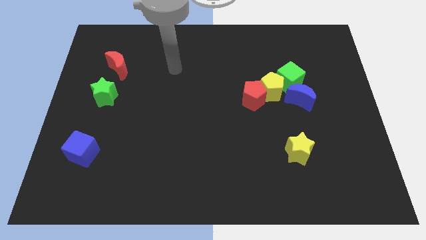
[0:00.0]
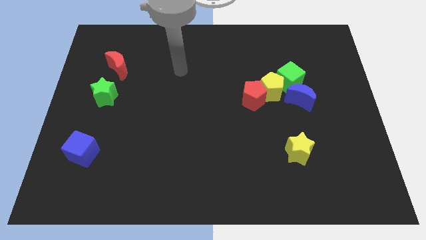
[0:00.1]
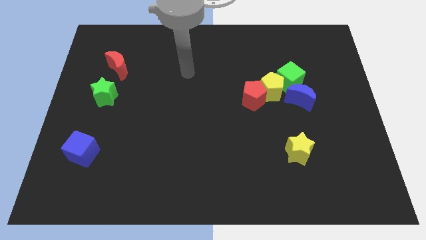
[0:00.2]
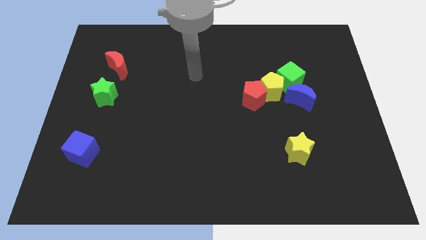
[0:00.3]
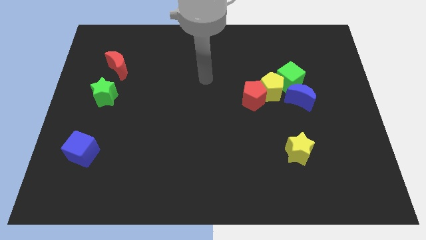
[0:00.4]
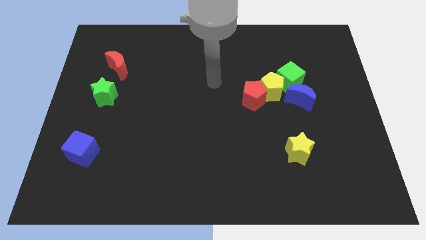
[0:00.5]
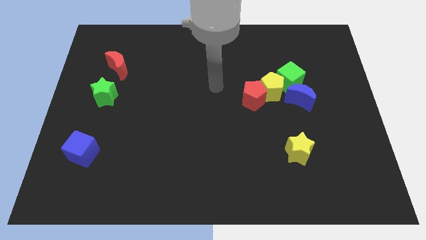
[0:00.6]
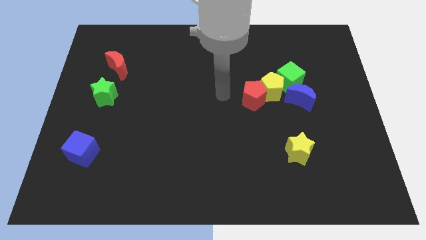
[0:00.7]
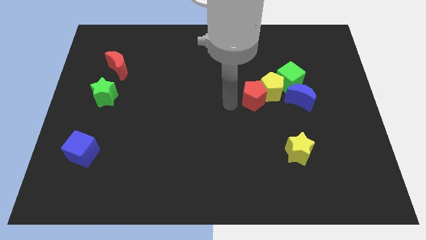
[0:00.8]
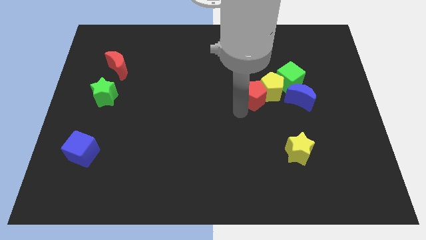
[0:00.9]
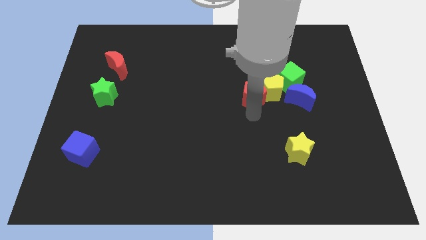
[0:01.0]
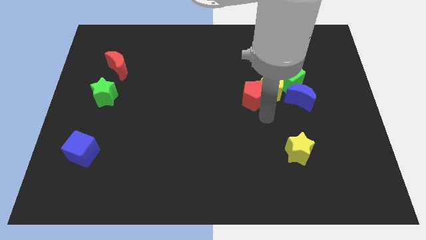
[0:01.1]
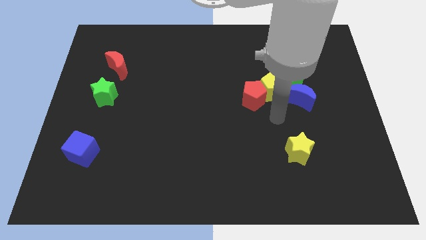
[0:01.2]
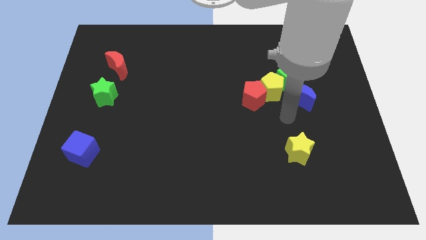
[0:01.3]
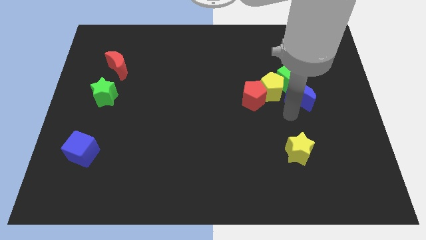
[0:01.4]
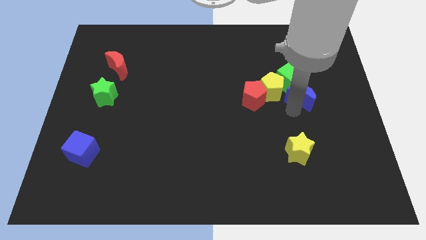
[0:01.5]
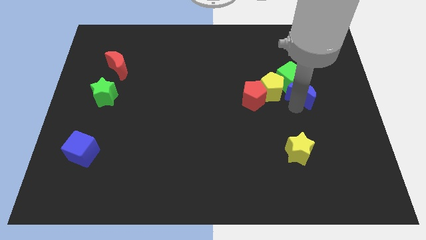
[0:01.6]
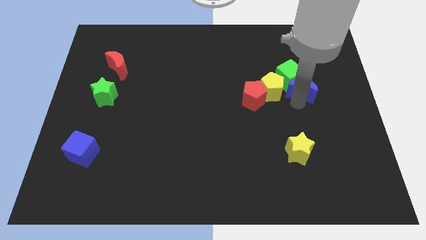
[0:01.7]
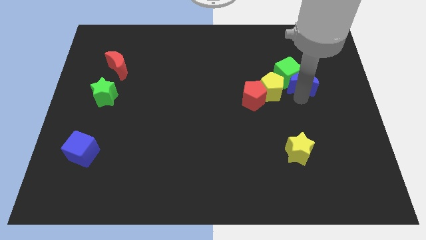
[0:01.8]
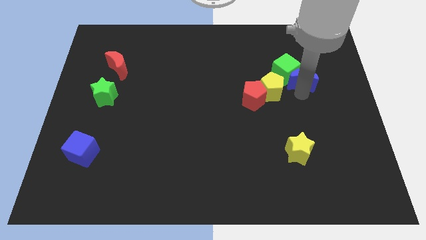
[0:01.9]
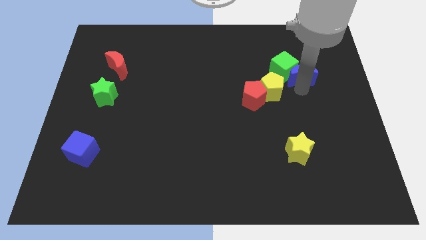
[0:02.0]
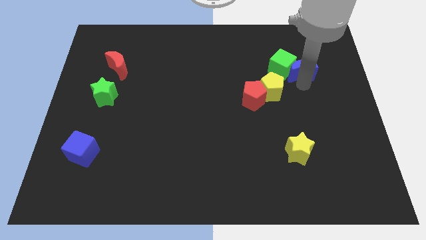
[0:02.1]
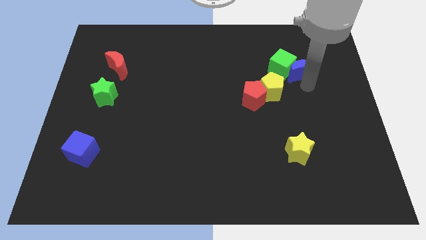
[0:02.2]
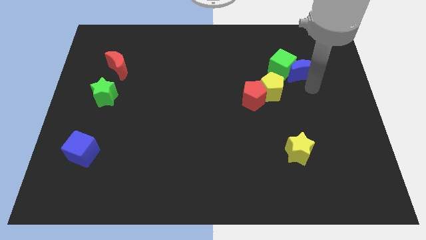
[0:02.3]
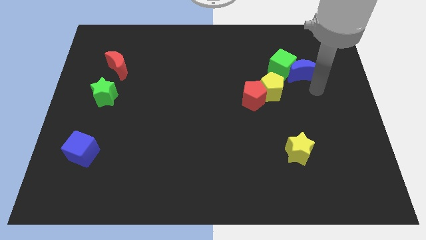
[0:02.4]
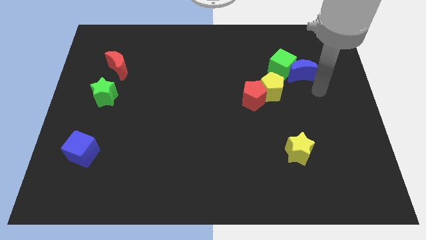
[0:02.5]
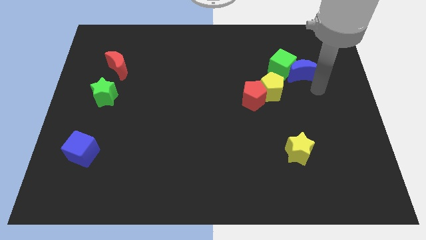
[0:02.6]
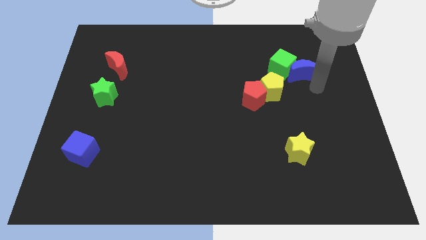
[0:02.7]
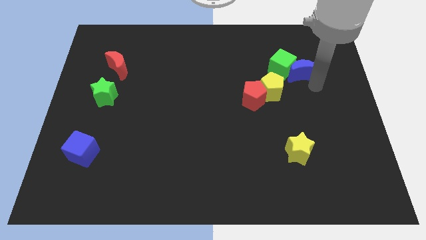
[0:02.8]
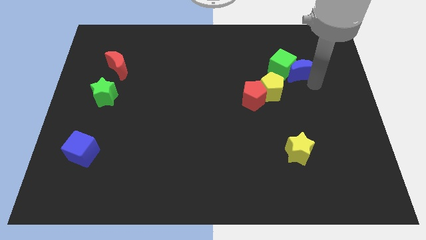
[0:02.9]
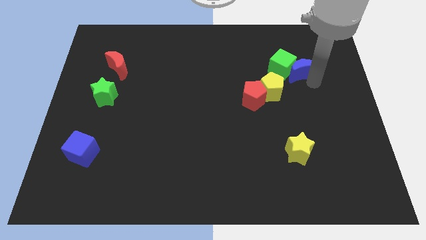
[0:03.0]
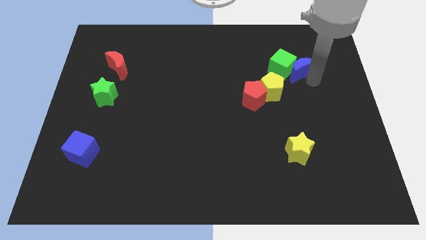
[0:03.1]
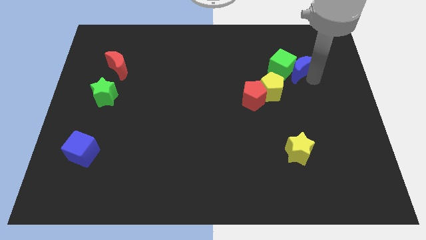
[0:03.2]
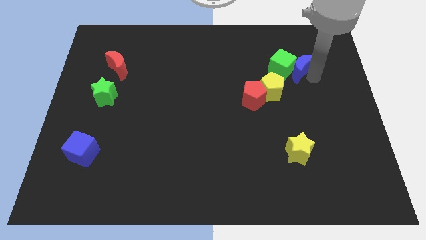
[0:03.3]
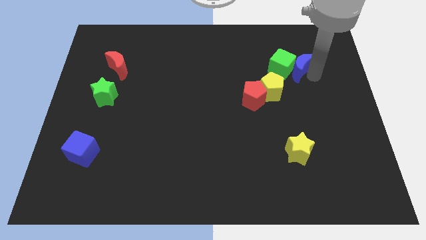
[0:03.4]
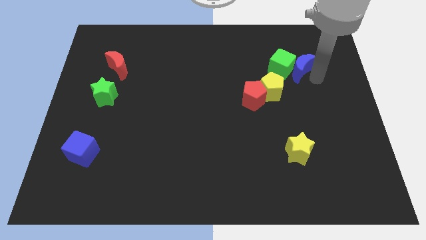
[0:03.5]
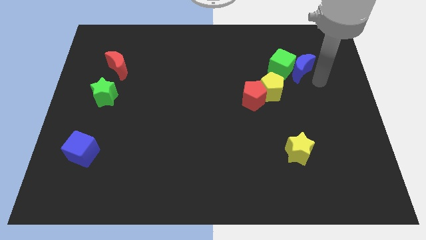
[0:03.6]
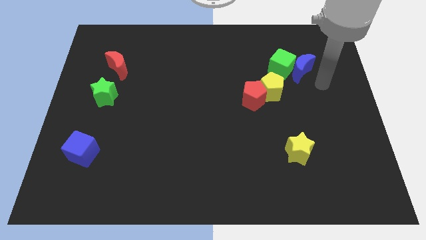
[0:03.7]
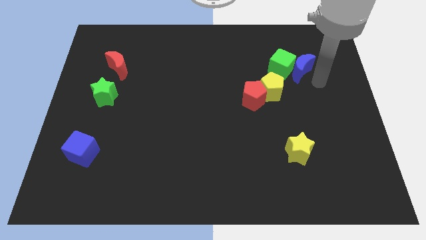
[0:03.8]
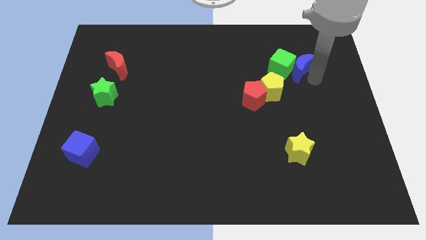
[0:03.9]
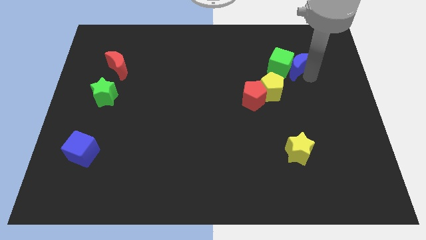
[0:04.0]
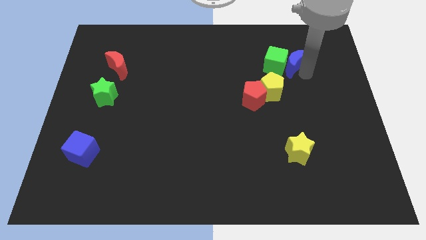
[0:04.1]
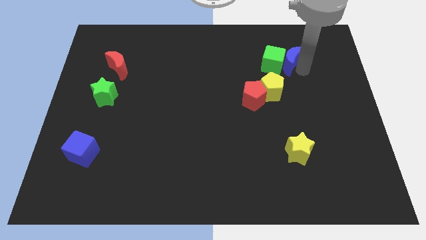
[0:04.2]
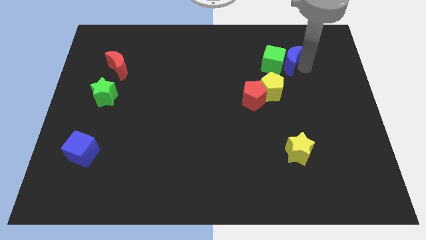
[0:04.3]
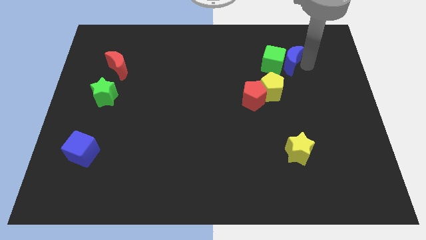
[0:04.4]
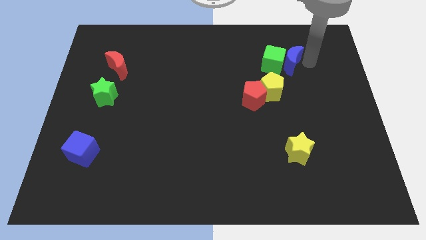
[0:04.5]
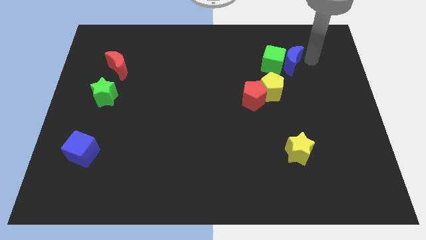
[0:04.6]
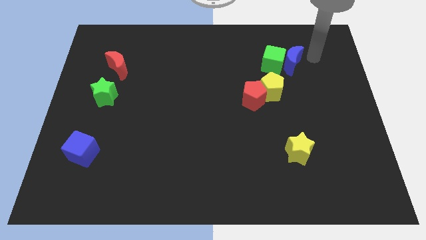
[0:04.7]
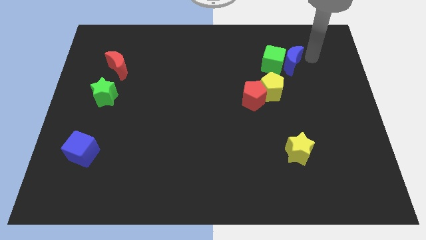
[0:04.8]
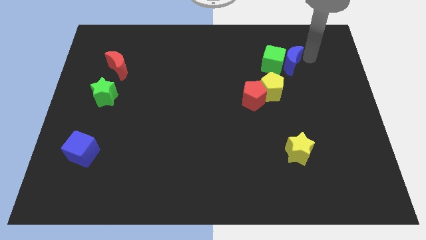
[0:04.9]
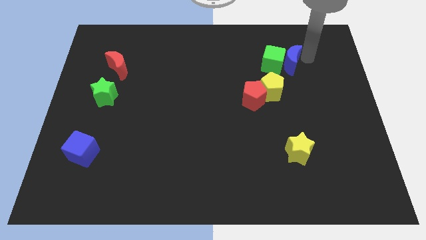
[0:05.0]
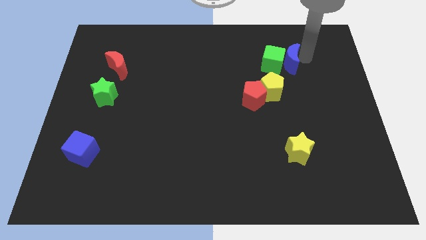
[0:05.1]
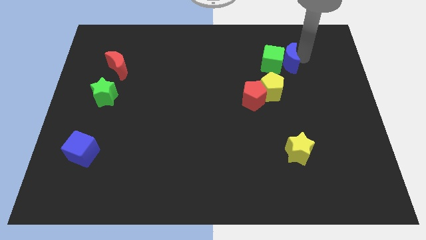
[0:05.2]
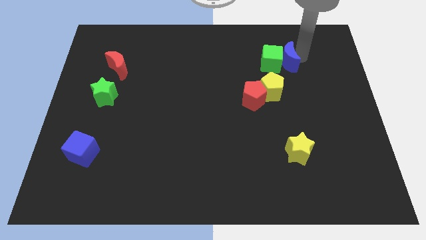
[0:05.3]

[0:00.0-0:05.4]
move the blue moon upwards and then to the left a bit

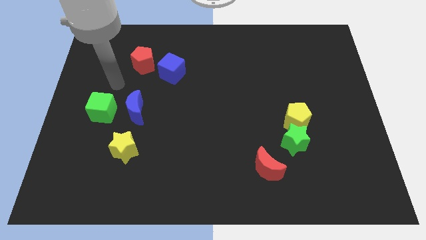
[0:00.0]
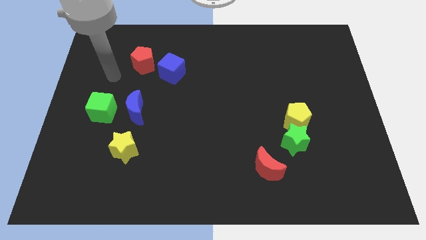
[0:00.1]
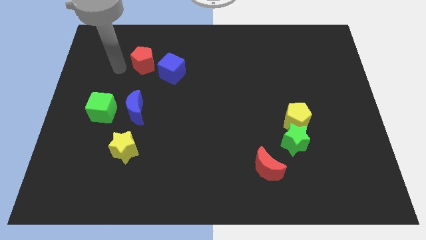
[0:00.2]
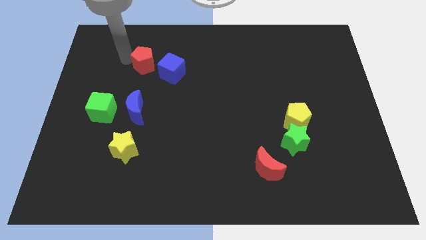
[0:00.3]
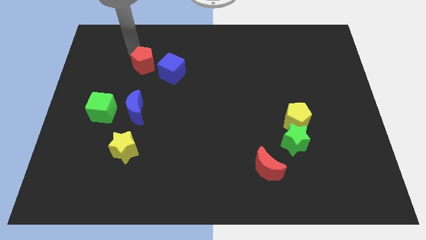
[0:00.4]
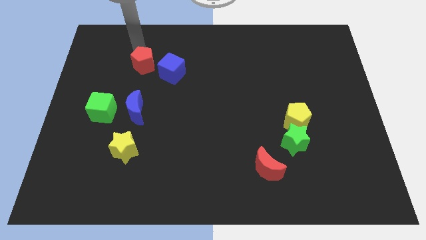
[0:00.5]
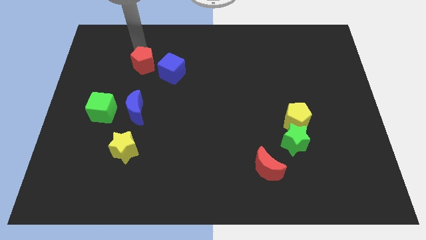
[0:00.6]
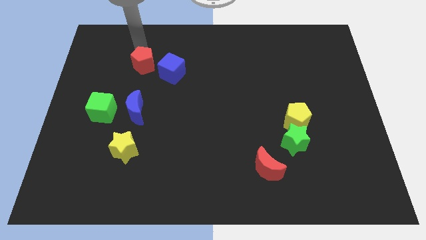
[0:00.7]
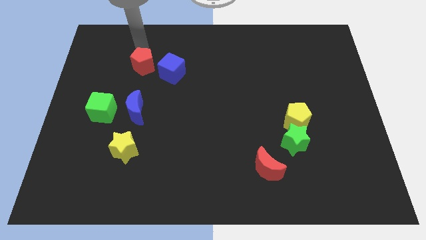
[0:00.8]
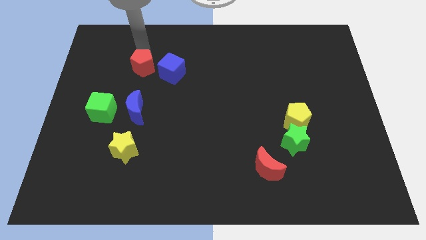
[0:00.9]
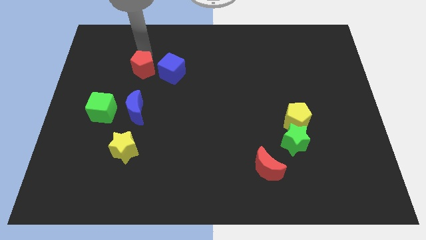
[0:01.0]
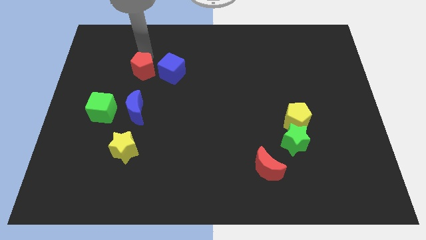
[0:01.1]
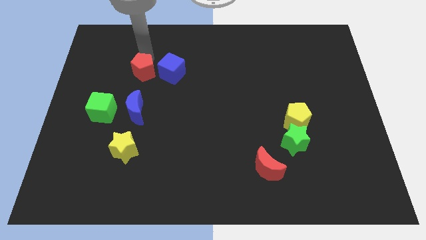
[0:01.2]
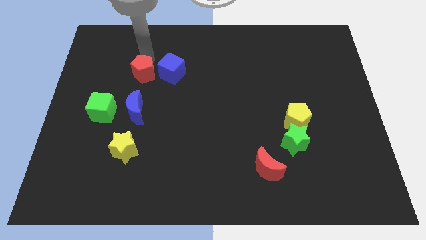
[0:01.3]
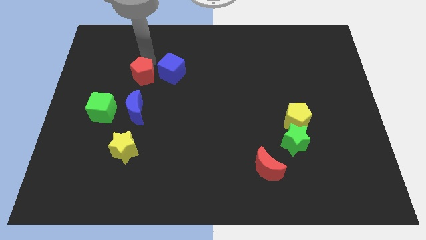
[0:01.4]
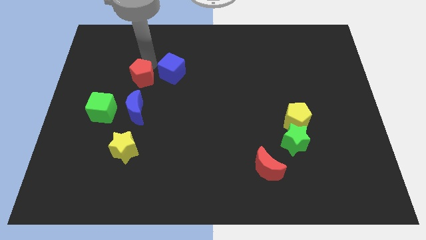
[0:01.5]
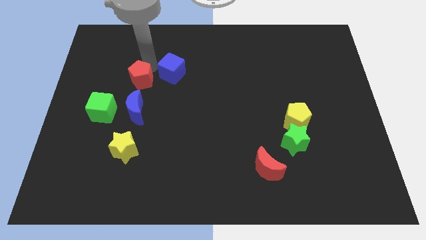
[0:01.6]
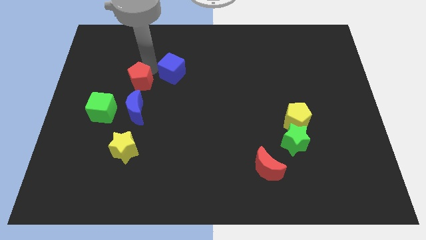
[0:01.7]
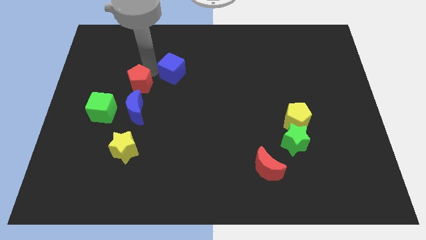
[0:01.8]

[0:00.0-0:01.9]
slide the red pentagon down a little
